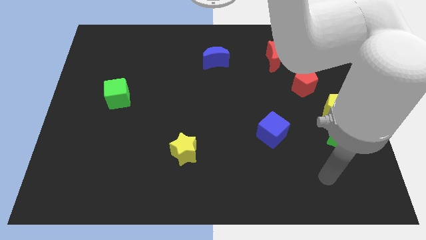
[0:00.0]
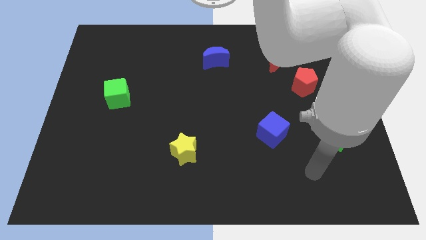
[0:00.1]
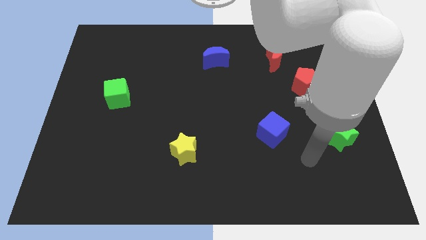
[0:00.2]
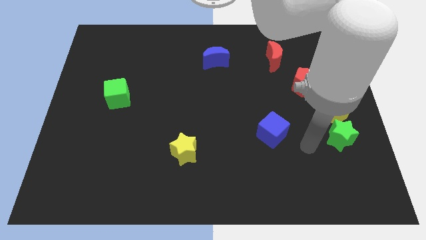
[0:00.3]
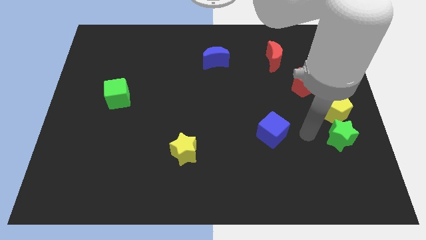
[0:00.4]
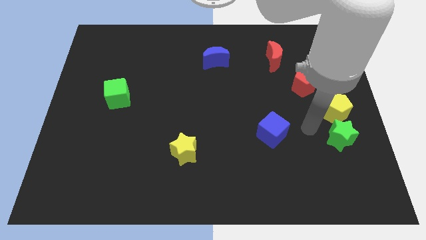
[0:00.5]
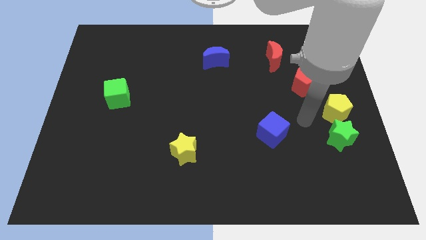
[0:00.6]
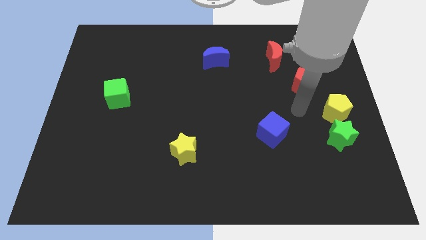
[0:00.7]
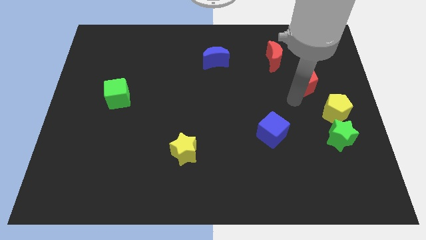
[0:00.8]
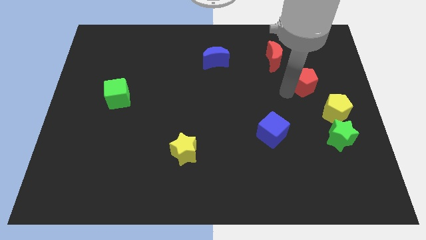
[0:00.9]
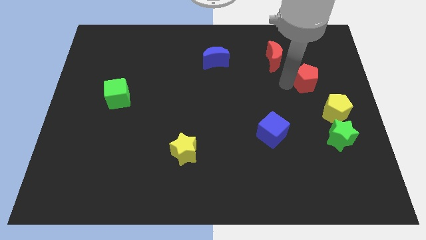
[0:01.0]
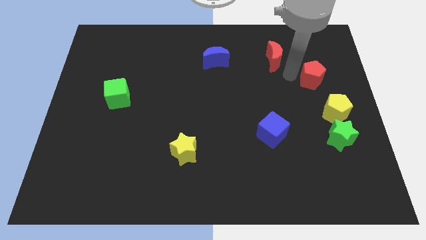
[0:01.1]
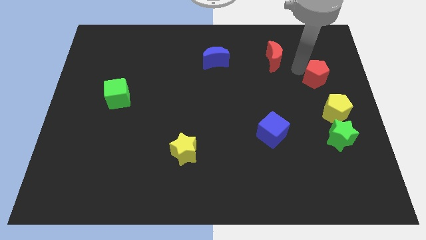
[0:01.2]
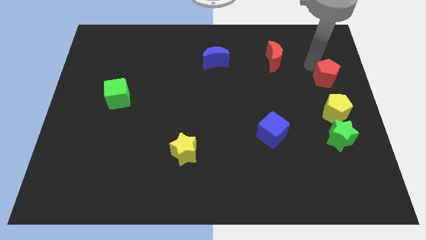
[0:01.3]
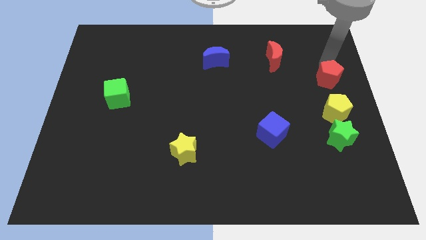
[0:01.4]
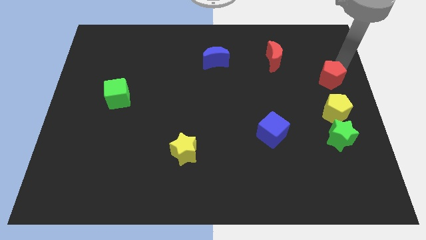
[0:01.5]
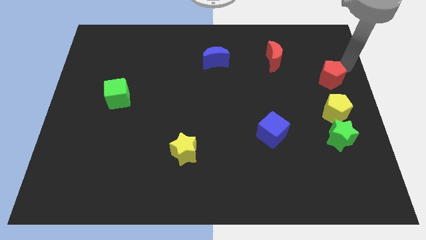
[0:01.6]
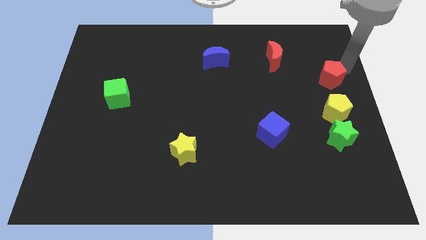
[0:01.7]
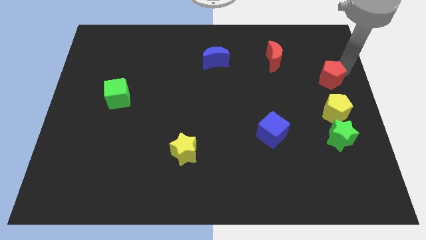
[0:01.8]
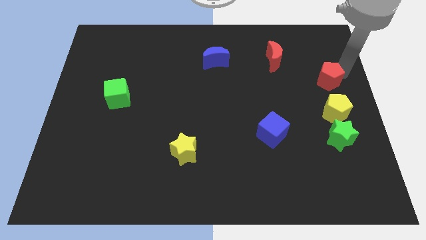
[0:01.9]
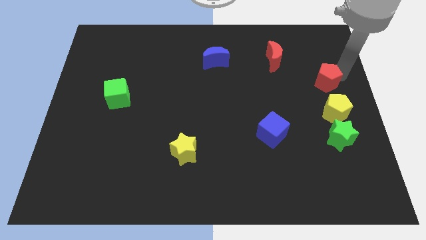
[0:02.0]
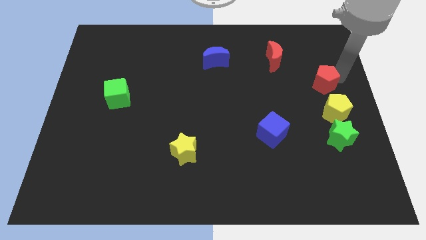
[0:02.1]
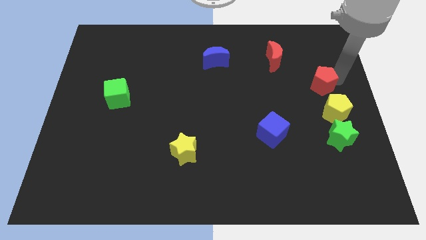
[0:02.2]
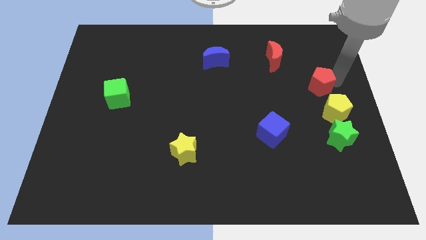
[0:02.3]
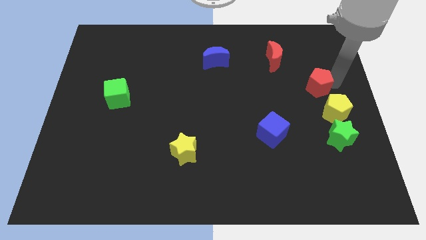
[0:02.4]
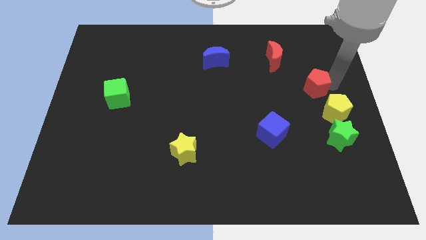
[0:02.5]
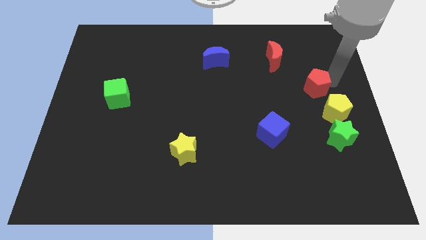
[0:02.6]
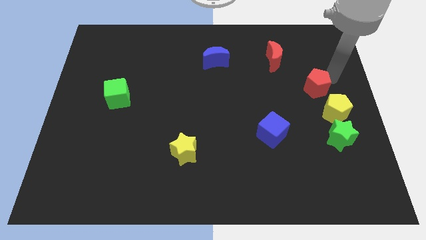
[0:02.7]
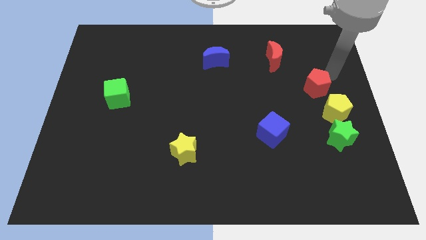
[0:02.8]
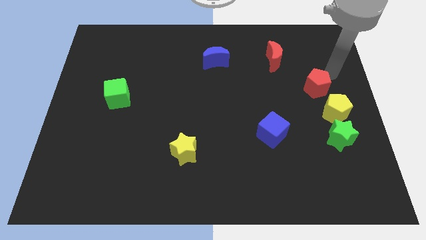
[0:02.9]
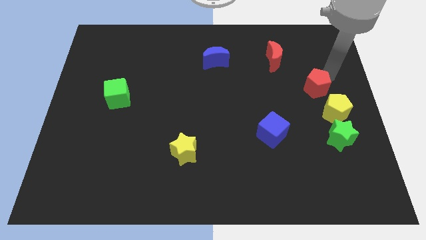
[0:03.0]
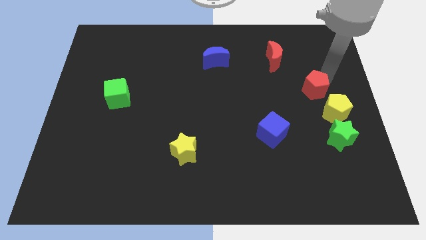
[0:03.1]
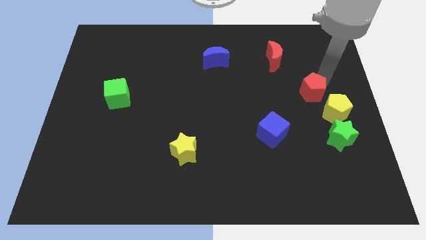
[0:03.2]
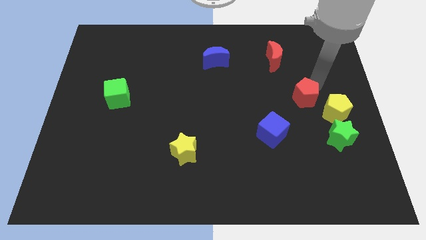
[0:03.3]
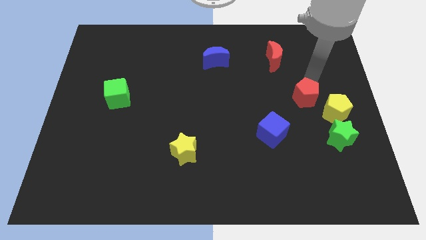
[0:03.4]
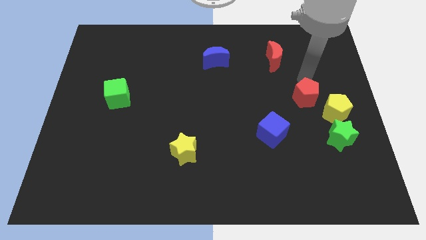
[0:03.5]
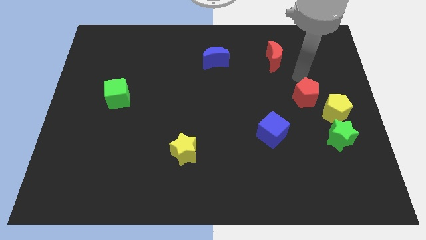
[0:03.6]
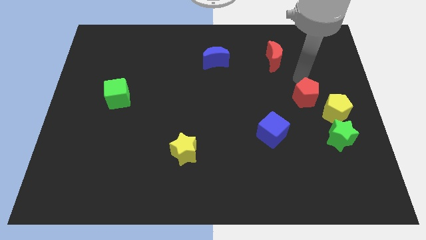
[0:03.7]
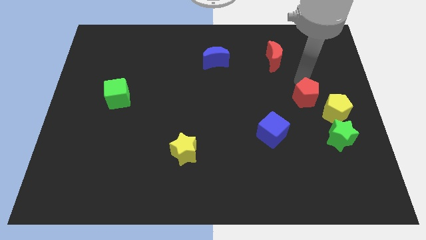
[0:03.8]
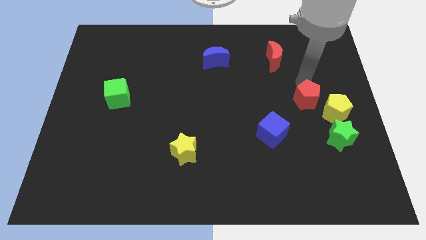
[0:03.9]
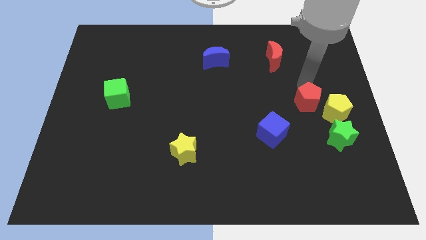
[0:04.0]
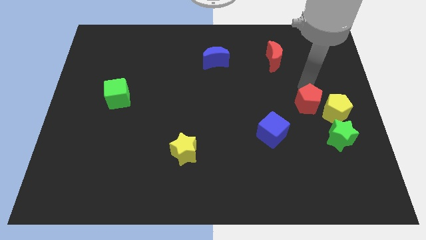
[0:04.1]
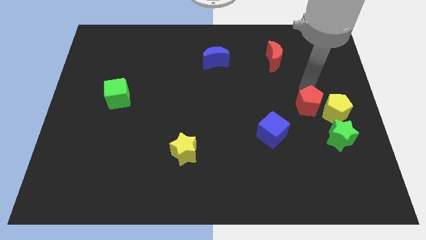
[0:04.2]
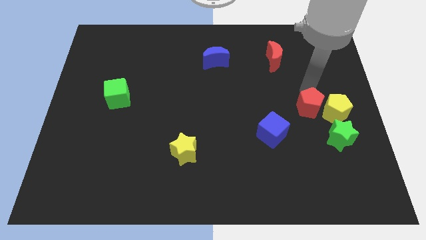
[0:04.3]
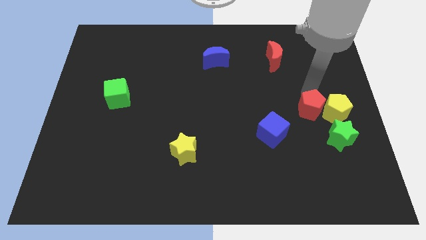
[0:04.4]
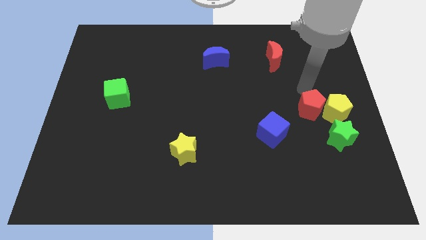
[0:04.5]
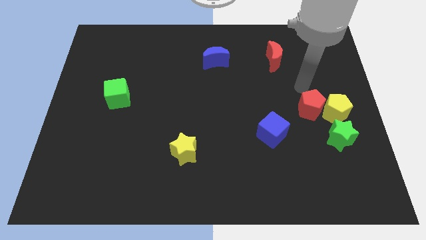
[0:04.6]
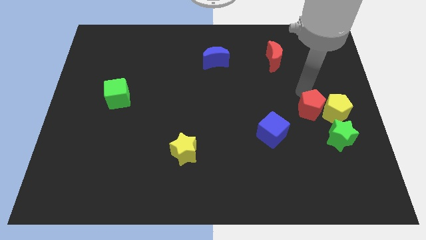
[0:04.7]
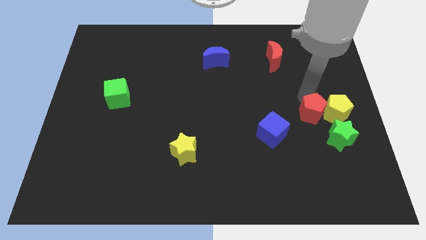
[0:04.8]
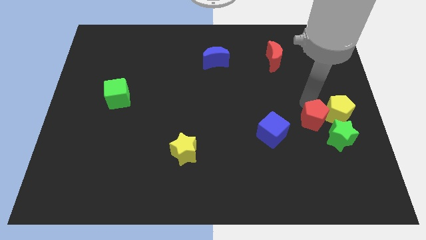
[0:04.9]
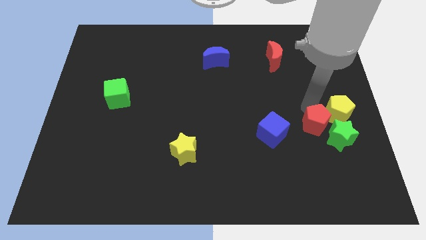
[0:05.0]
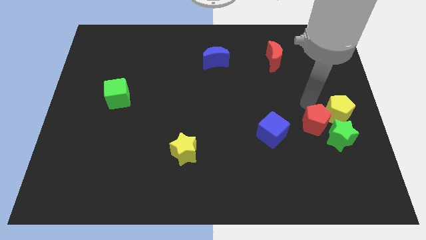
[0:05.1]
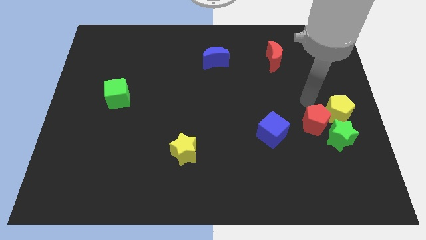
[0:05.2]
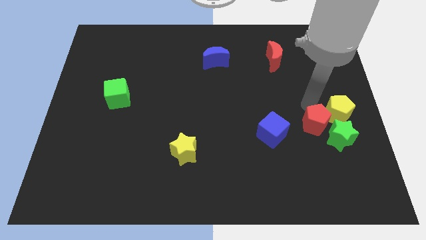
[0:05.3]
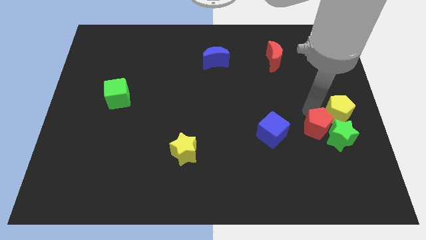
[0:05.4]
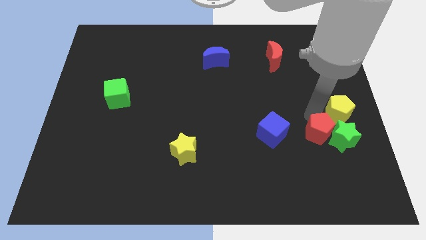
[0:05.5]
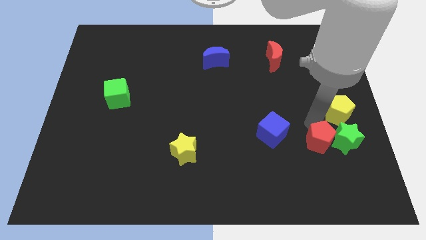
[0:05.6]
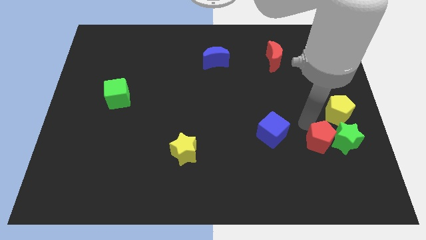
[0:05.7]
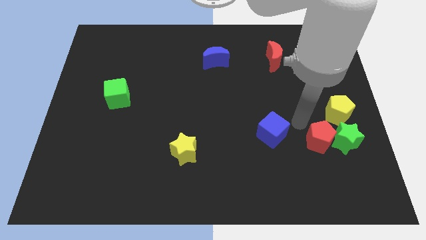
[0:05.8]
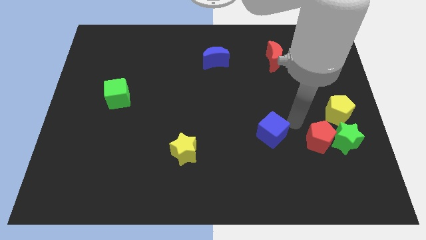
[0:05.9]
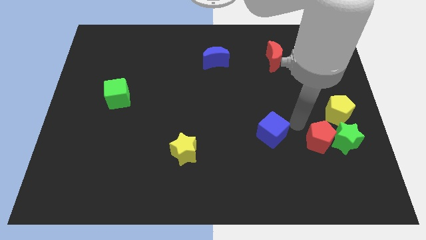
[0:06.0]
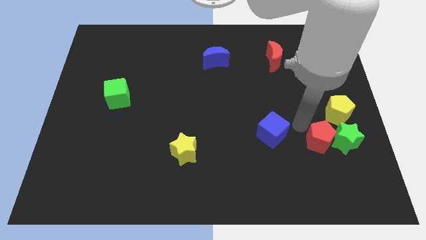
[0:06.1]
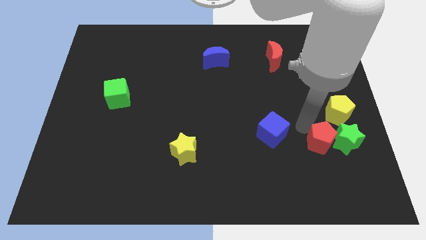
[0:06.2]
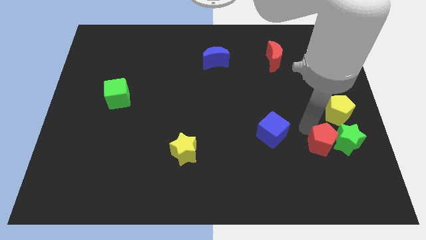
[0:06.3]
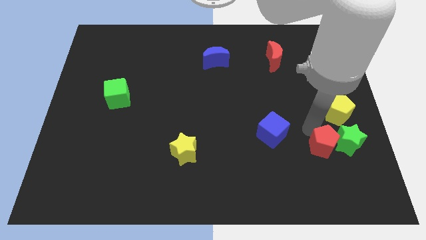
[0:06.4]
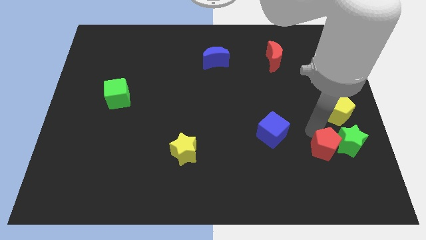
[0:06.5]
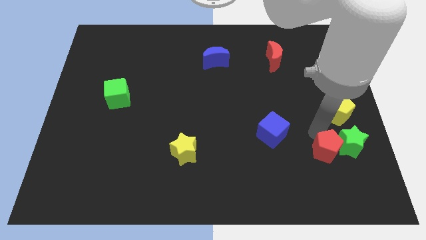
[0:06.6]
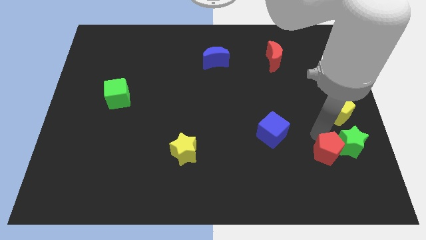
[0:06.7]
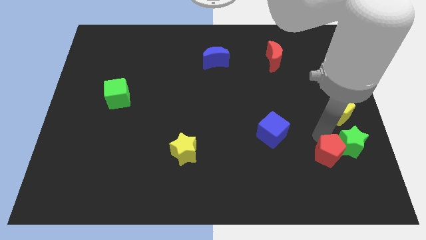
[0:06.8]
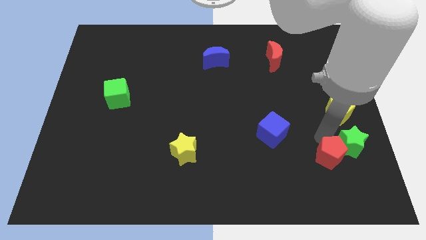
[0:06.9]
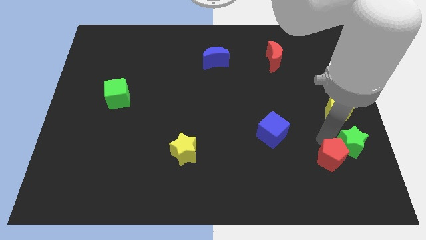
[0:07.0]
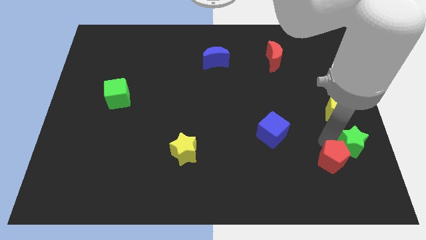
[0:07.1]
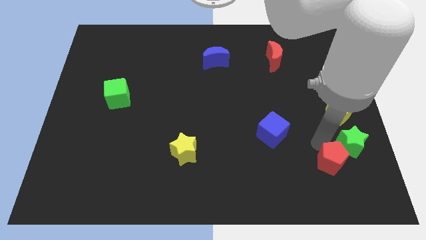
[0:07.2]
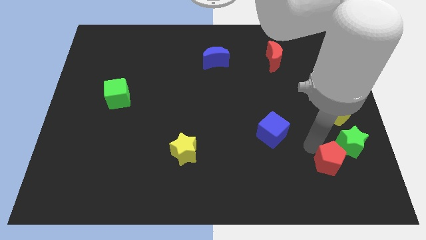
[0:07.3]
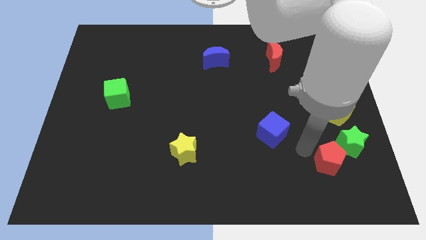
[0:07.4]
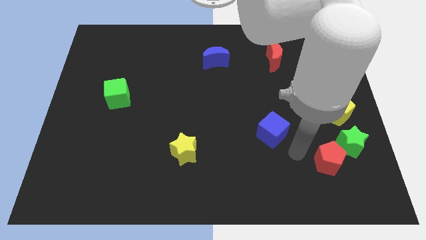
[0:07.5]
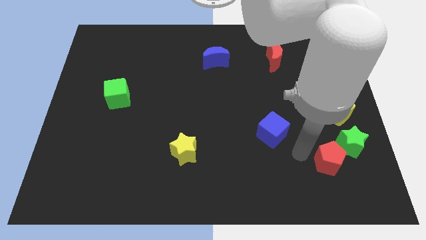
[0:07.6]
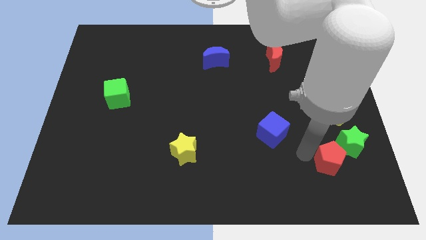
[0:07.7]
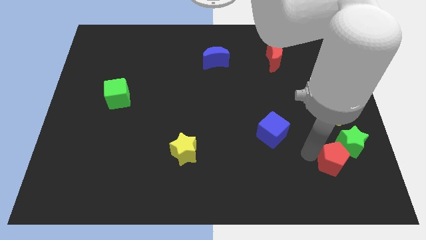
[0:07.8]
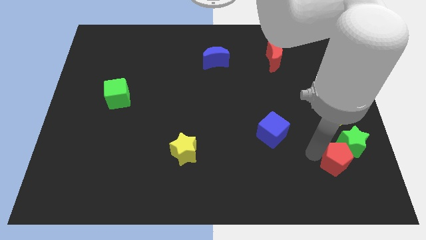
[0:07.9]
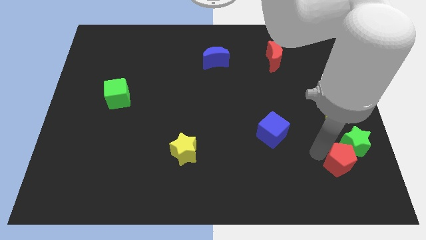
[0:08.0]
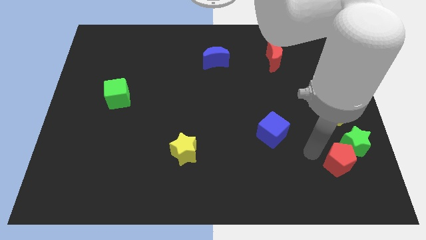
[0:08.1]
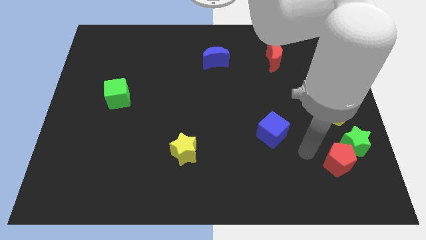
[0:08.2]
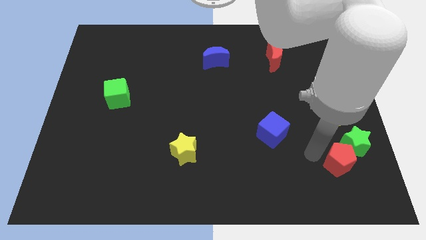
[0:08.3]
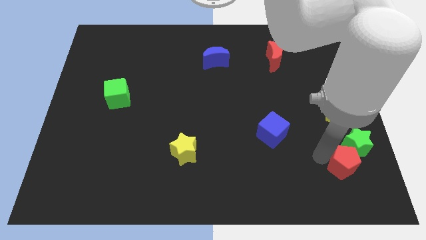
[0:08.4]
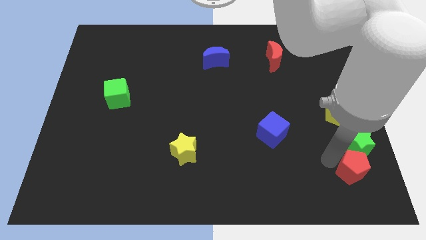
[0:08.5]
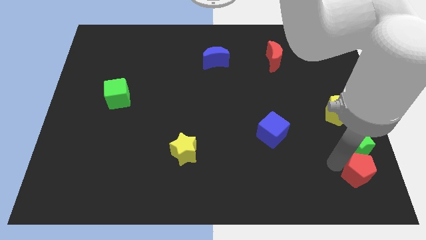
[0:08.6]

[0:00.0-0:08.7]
move the red pentagon to the bottom right corner
